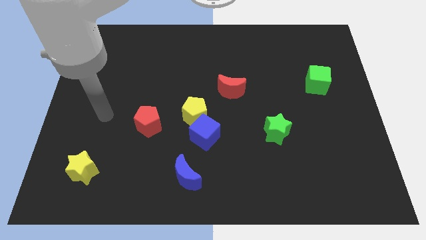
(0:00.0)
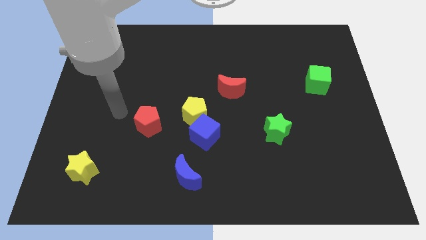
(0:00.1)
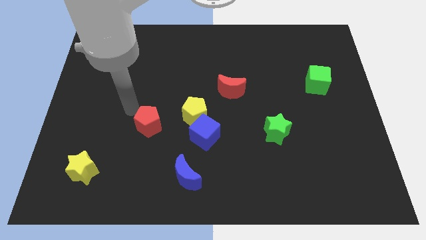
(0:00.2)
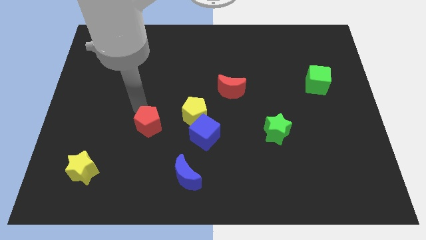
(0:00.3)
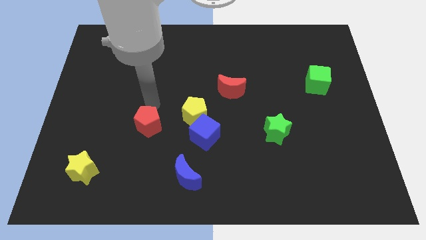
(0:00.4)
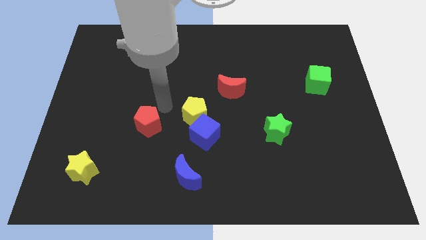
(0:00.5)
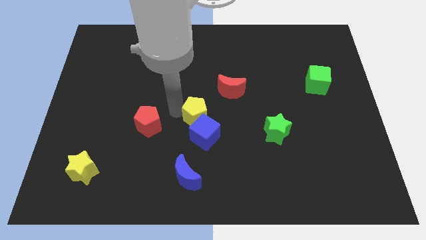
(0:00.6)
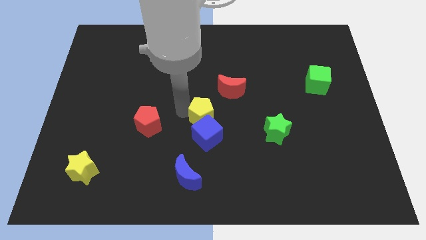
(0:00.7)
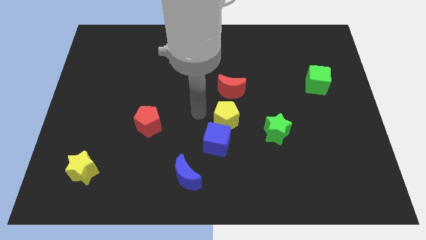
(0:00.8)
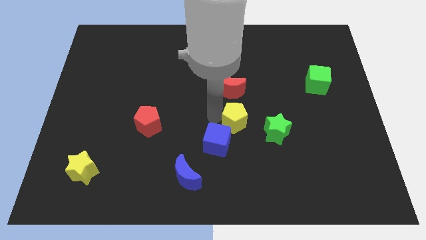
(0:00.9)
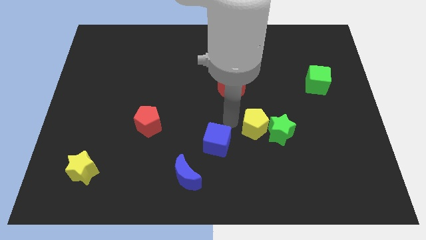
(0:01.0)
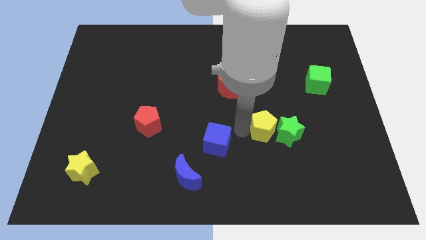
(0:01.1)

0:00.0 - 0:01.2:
pull the blue cube apart from the yellow pentagon

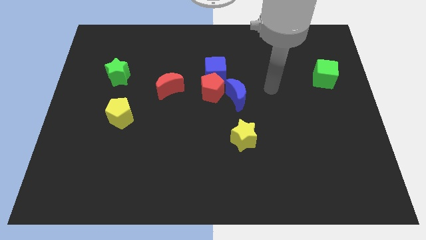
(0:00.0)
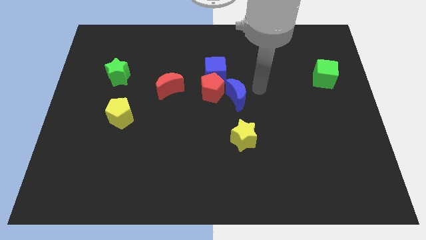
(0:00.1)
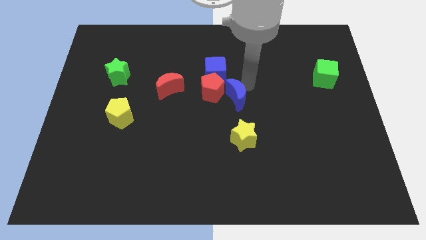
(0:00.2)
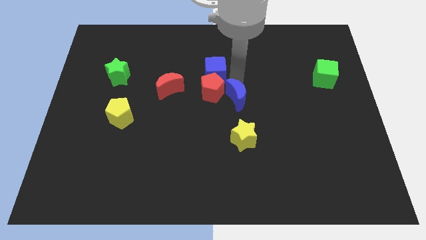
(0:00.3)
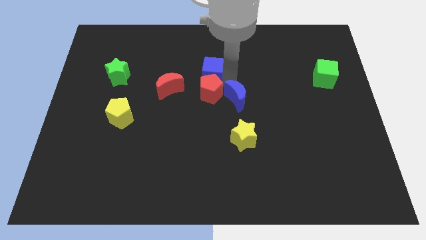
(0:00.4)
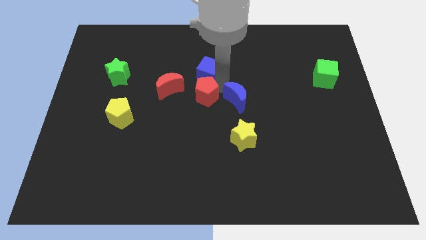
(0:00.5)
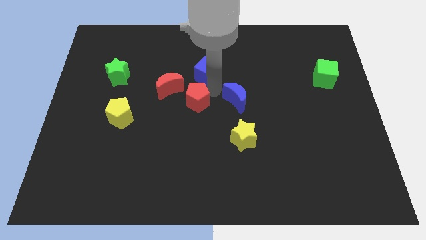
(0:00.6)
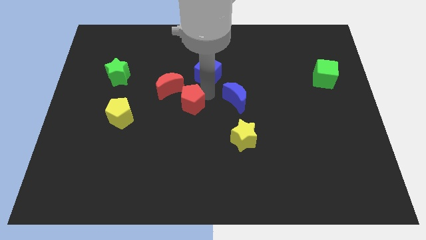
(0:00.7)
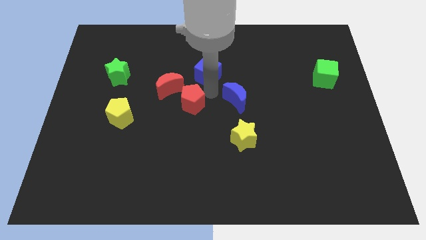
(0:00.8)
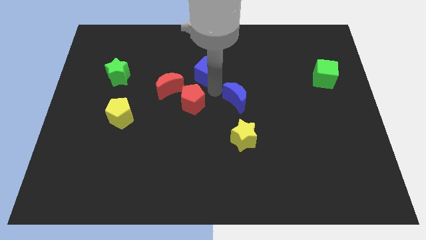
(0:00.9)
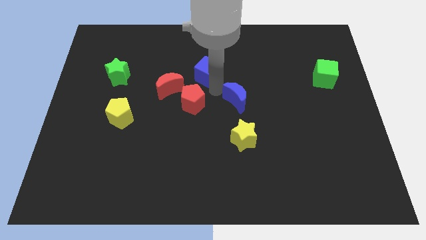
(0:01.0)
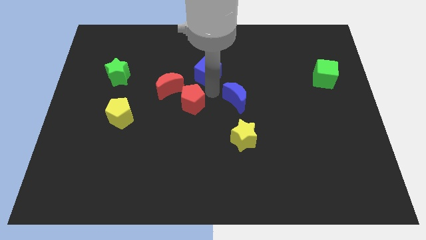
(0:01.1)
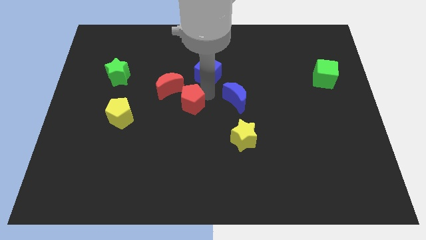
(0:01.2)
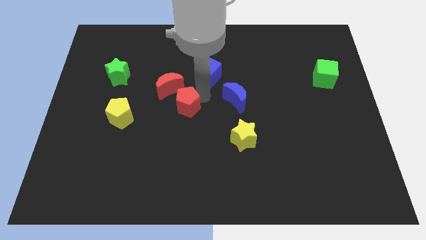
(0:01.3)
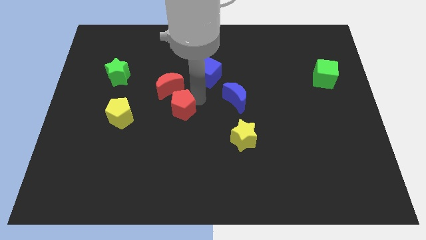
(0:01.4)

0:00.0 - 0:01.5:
move the red pentagon away from the blue cube and blue moon

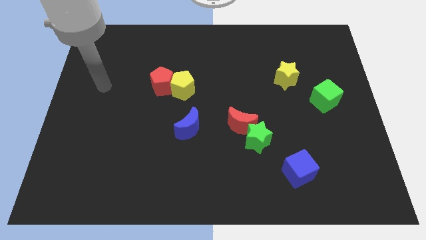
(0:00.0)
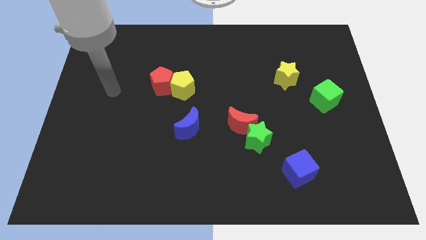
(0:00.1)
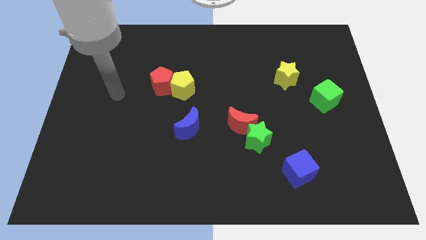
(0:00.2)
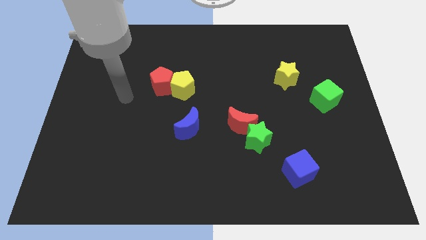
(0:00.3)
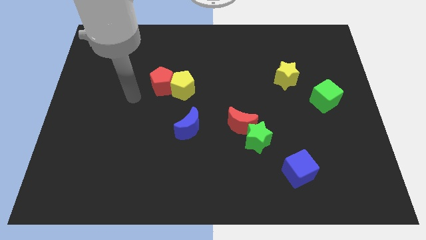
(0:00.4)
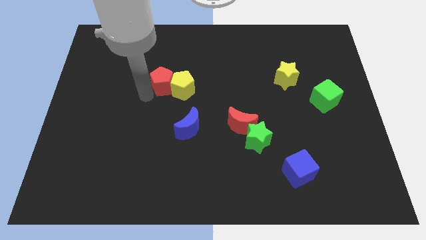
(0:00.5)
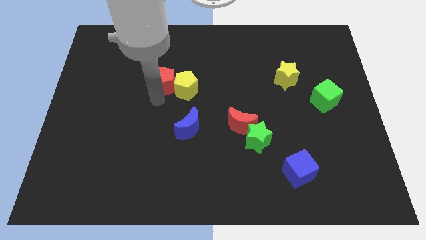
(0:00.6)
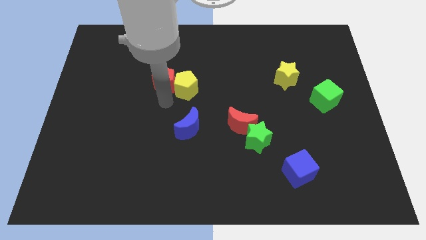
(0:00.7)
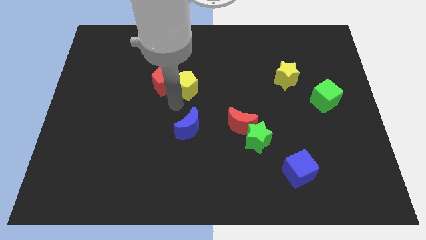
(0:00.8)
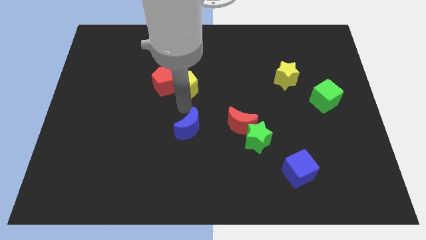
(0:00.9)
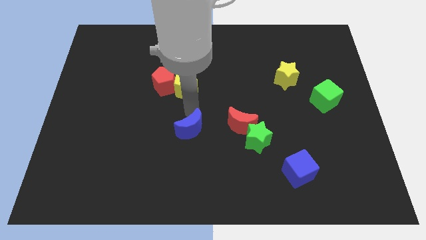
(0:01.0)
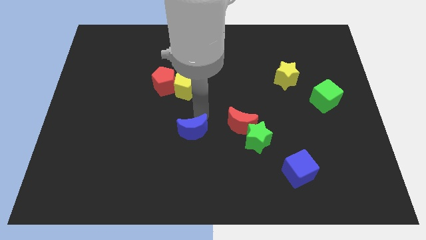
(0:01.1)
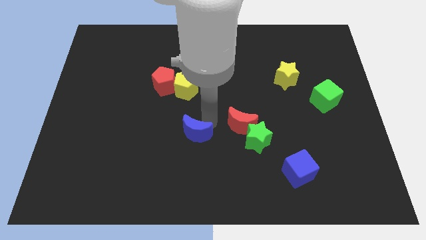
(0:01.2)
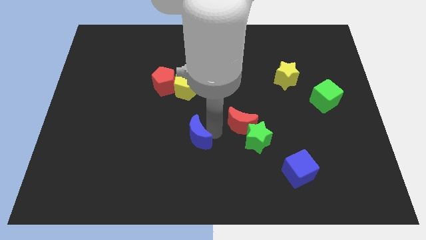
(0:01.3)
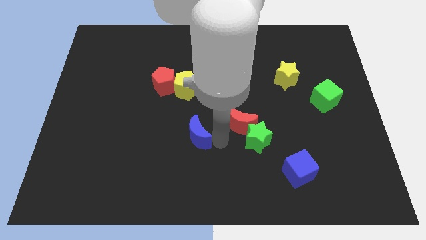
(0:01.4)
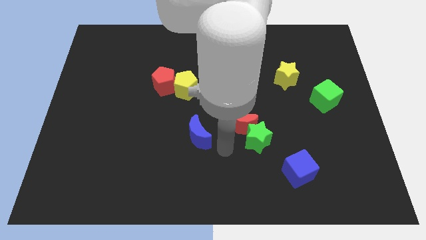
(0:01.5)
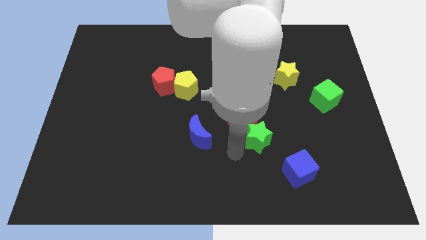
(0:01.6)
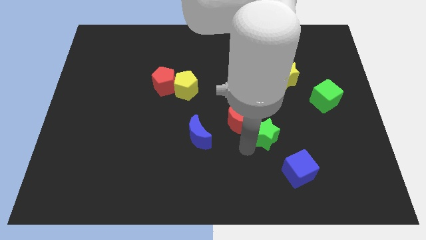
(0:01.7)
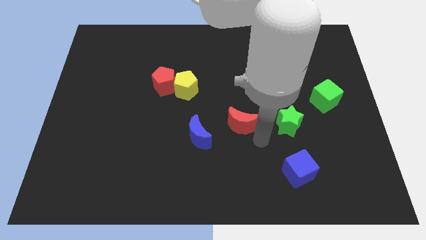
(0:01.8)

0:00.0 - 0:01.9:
separate the red moon from the green star

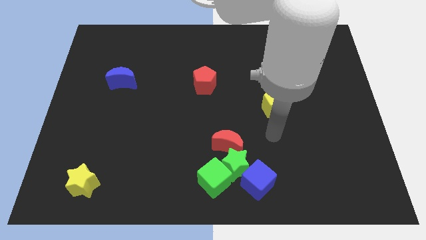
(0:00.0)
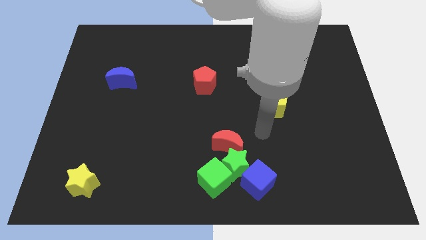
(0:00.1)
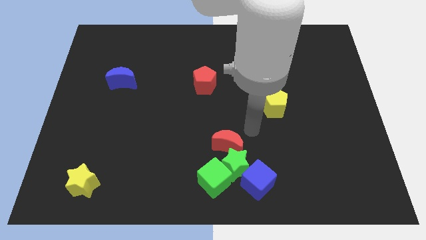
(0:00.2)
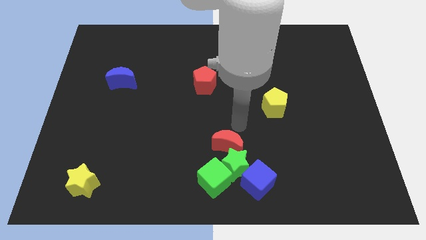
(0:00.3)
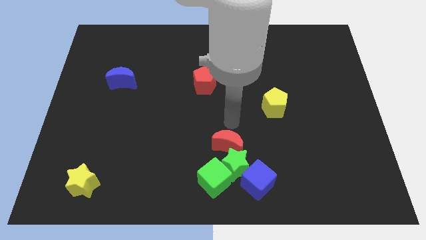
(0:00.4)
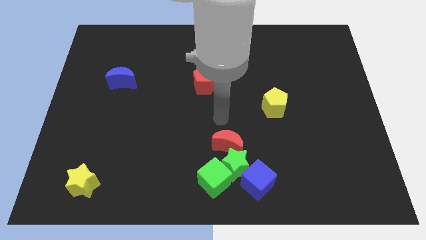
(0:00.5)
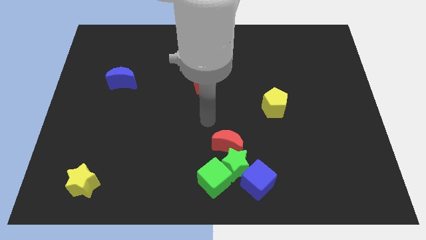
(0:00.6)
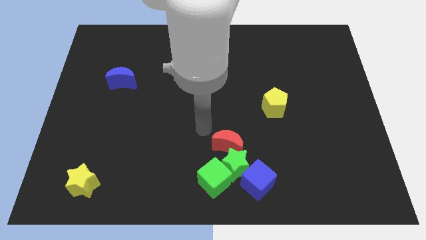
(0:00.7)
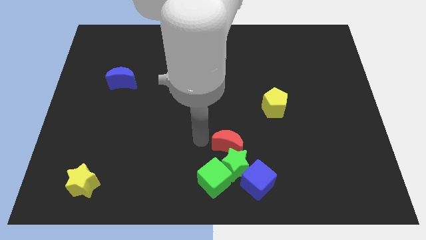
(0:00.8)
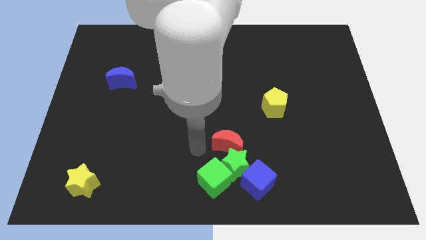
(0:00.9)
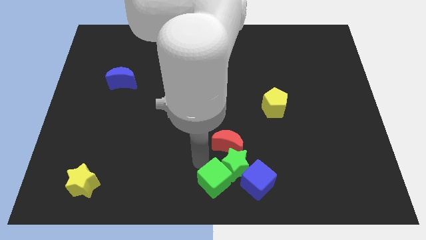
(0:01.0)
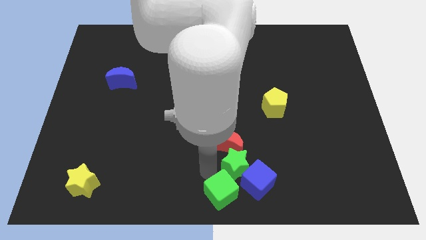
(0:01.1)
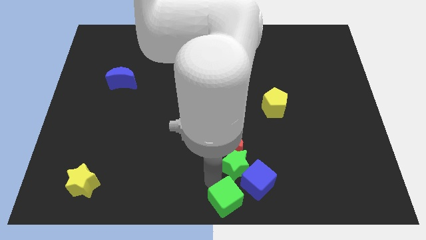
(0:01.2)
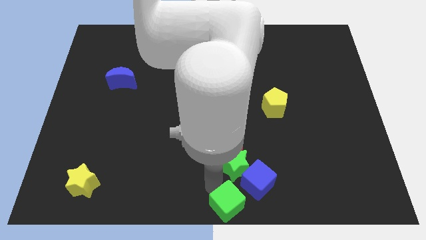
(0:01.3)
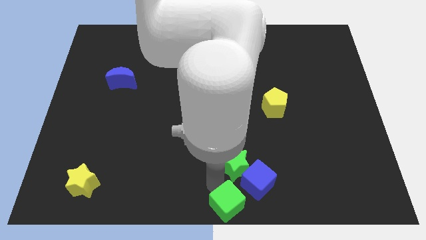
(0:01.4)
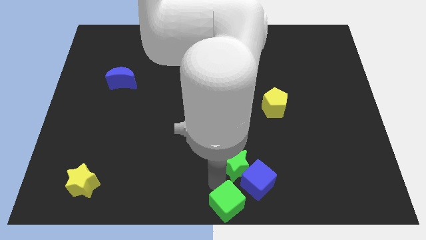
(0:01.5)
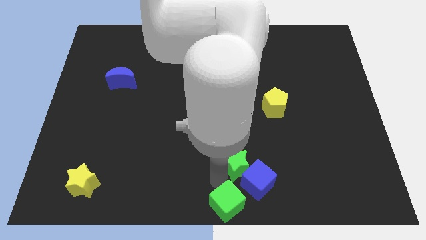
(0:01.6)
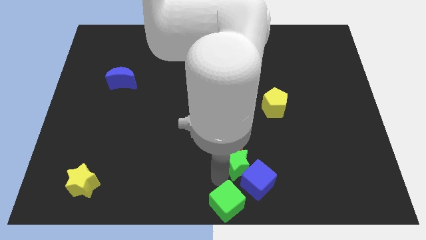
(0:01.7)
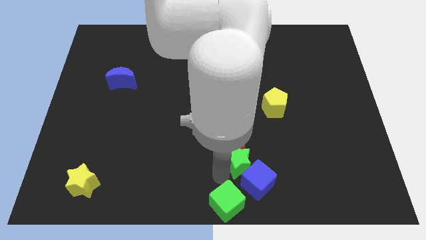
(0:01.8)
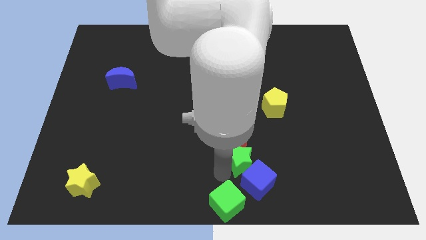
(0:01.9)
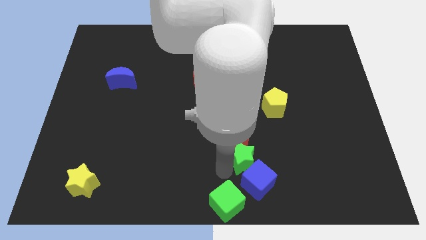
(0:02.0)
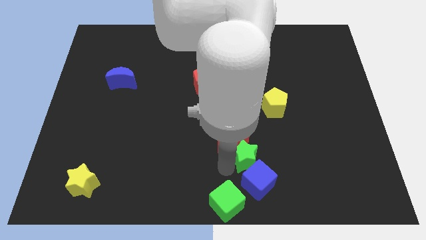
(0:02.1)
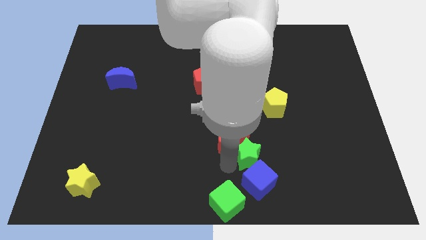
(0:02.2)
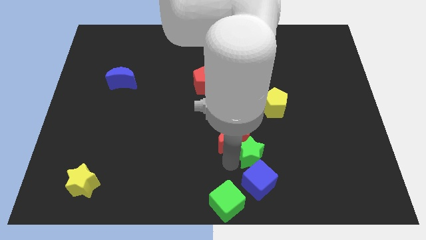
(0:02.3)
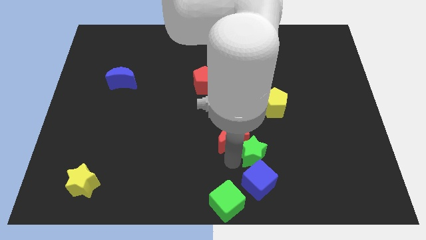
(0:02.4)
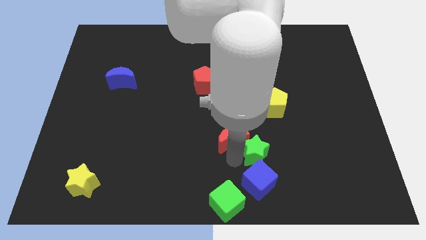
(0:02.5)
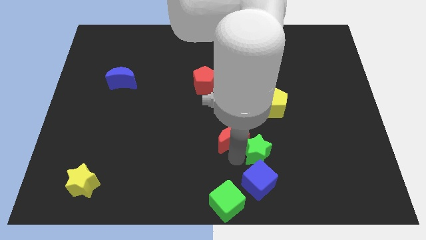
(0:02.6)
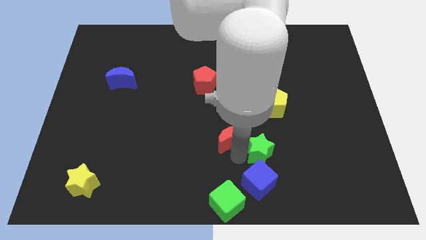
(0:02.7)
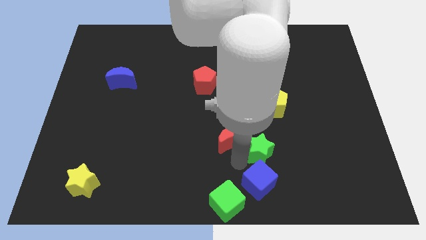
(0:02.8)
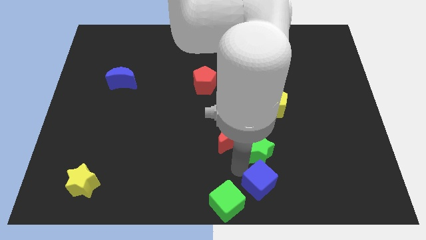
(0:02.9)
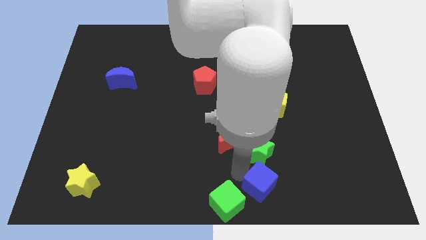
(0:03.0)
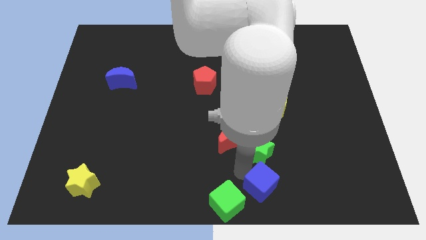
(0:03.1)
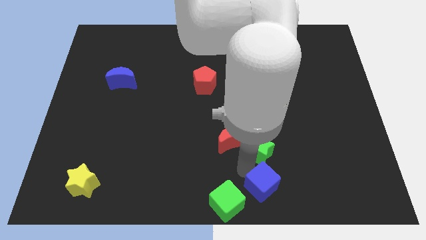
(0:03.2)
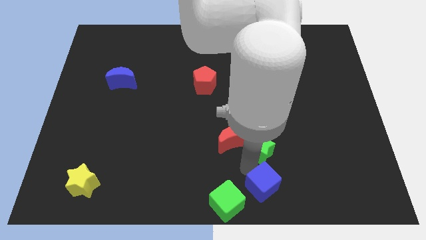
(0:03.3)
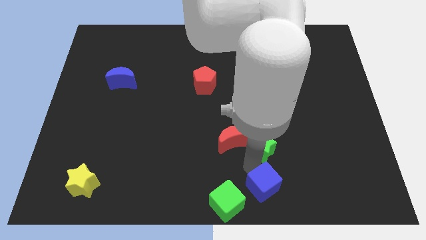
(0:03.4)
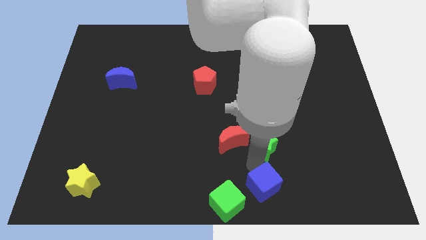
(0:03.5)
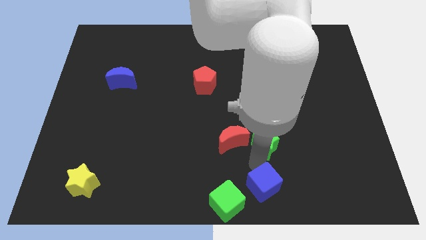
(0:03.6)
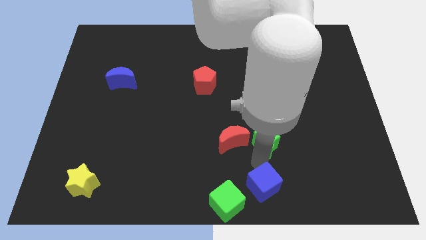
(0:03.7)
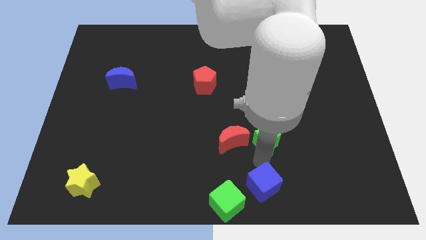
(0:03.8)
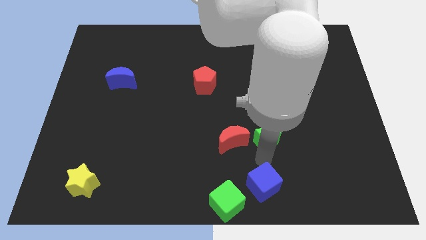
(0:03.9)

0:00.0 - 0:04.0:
separate the green star from the group of blocks

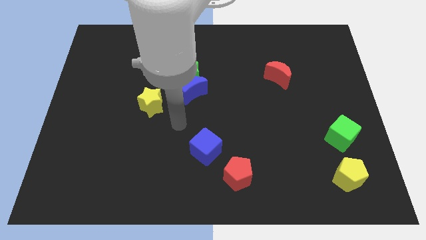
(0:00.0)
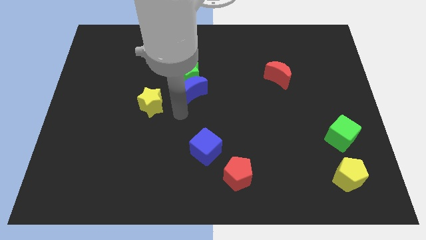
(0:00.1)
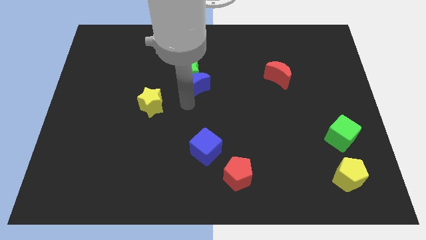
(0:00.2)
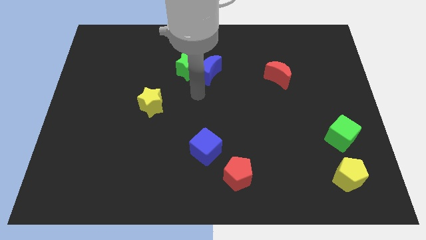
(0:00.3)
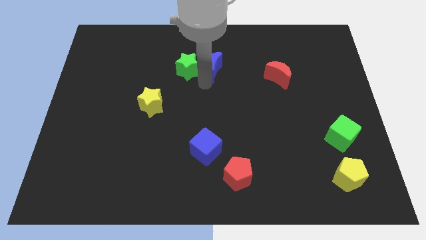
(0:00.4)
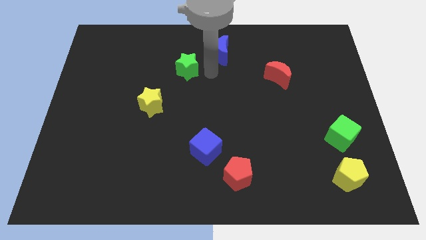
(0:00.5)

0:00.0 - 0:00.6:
move the green star away from the blue moon
